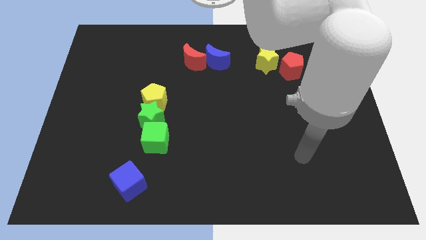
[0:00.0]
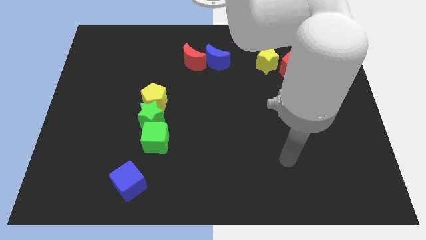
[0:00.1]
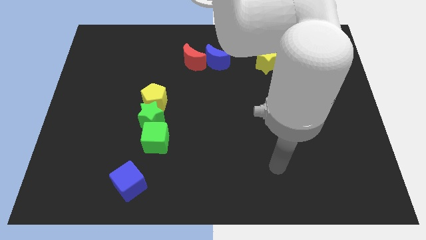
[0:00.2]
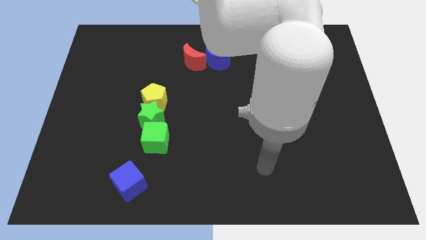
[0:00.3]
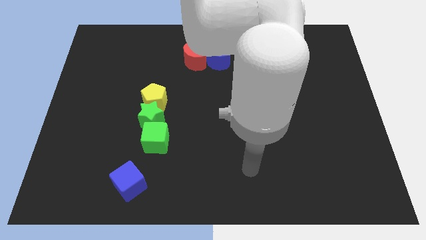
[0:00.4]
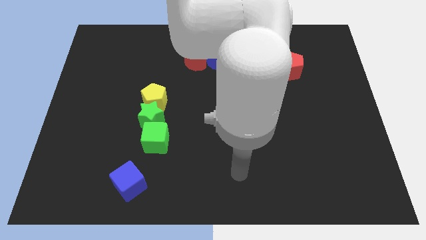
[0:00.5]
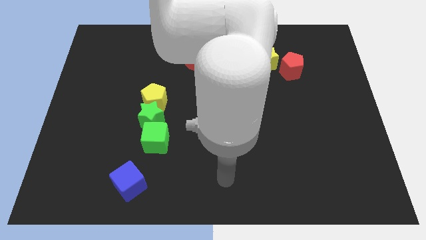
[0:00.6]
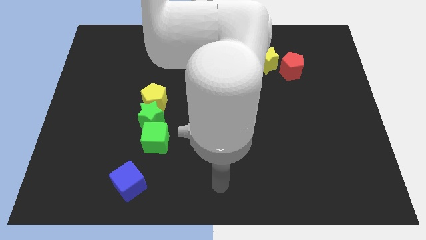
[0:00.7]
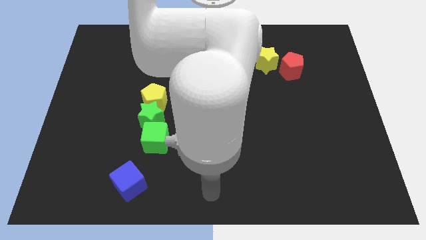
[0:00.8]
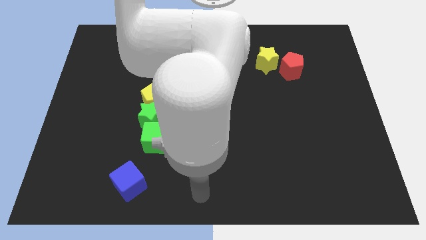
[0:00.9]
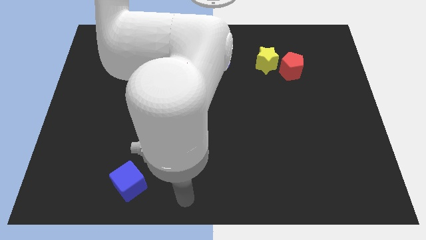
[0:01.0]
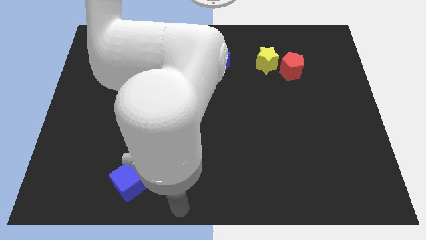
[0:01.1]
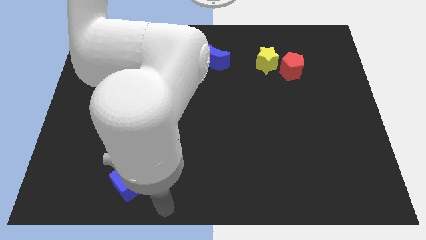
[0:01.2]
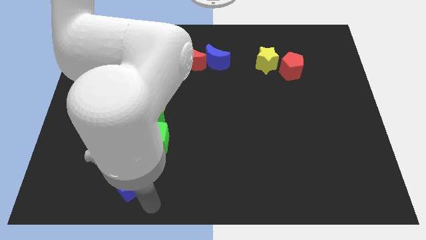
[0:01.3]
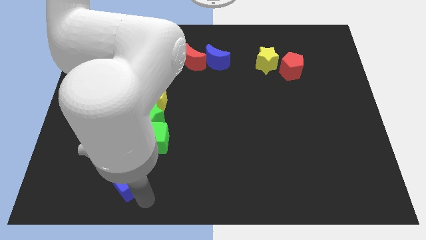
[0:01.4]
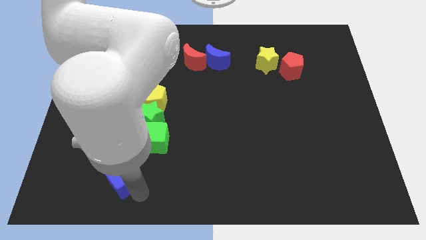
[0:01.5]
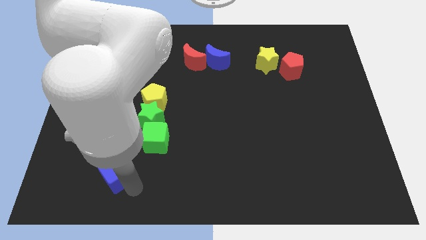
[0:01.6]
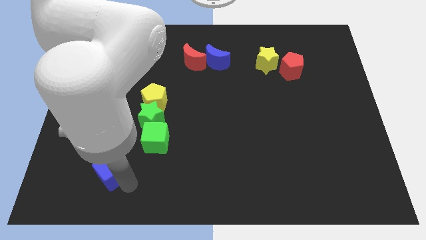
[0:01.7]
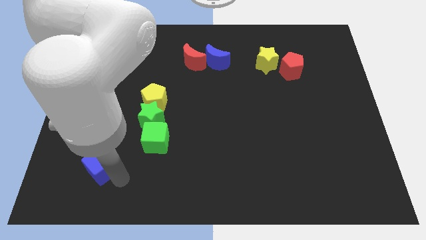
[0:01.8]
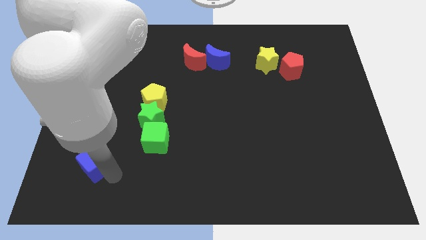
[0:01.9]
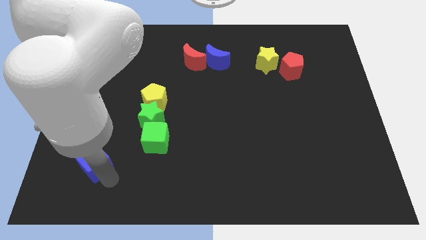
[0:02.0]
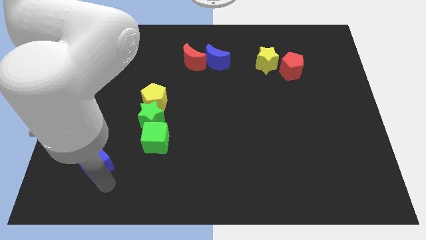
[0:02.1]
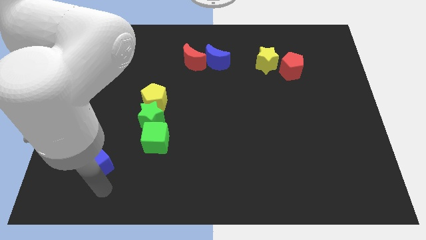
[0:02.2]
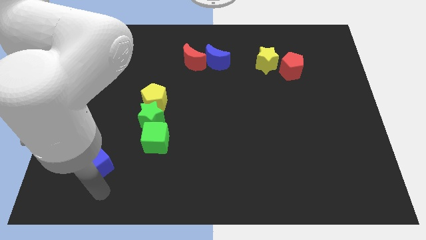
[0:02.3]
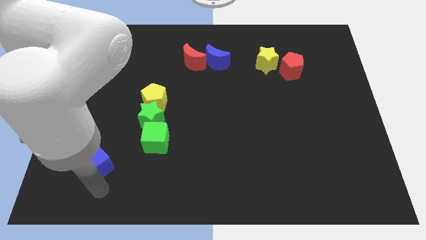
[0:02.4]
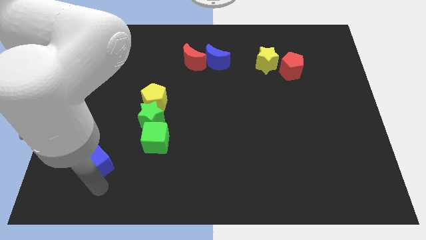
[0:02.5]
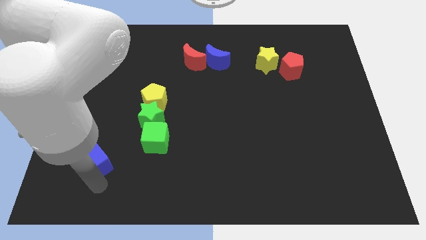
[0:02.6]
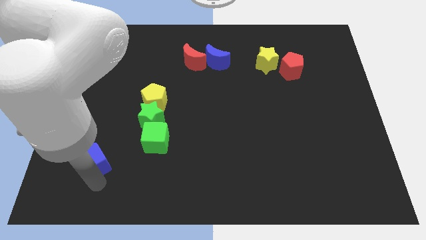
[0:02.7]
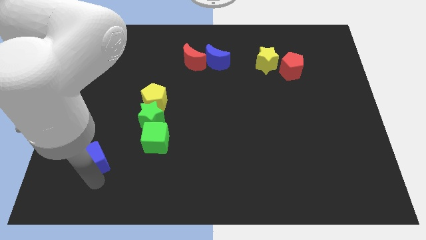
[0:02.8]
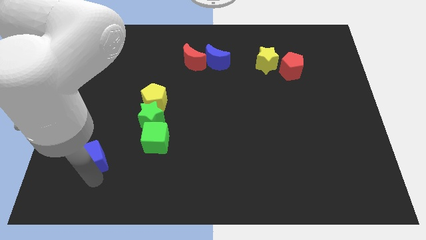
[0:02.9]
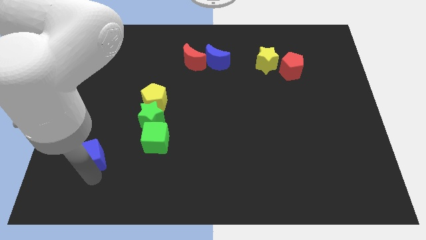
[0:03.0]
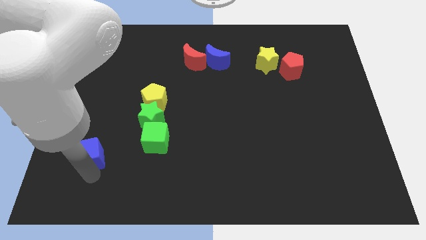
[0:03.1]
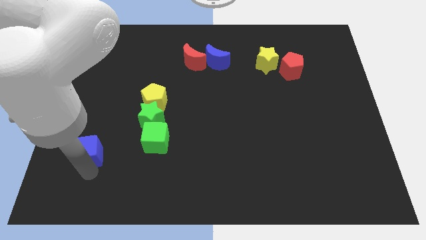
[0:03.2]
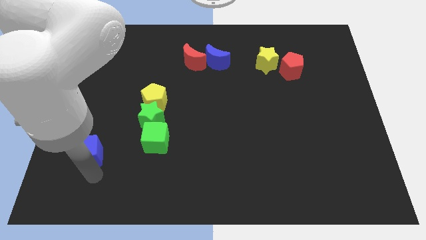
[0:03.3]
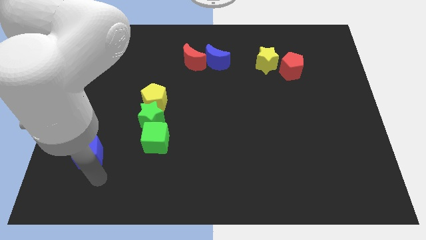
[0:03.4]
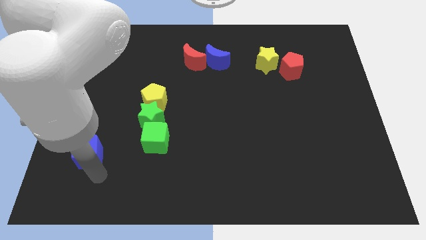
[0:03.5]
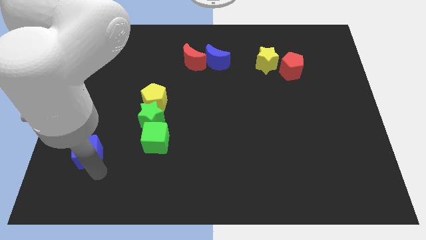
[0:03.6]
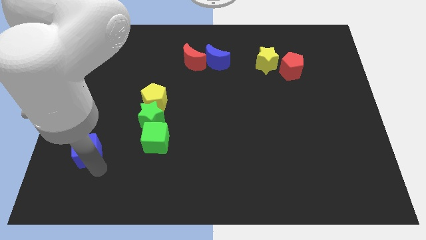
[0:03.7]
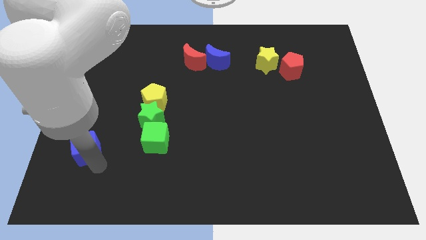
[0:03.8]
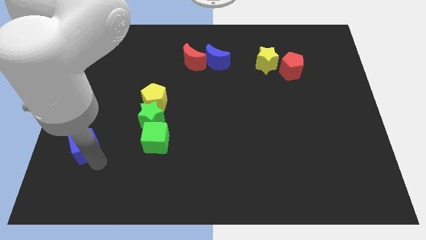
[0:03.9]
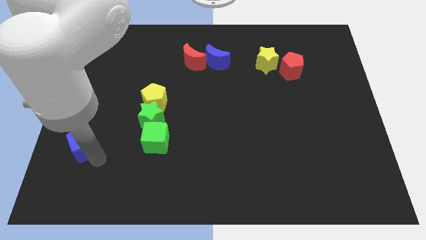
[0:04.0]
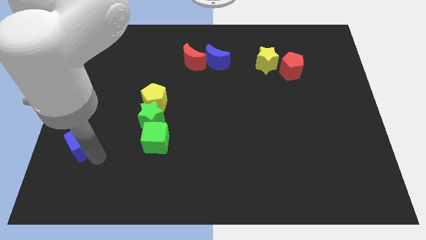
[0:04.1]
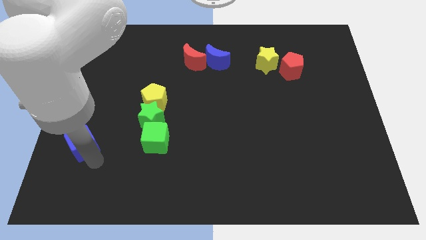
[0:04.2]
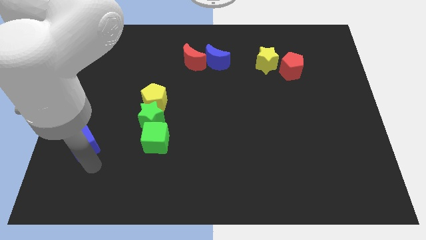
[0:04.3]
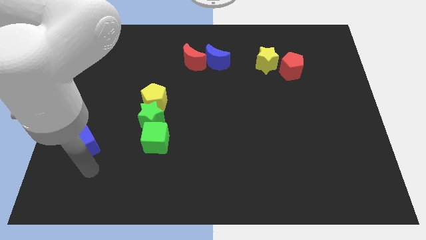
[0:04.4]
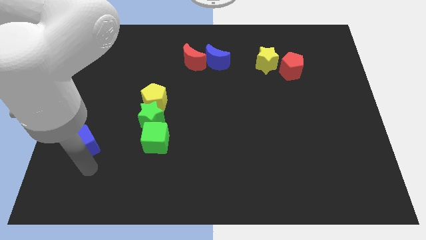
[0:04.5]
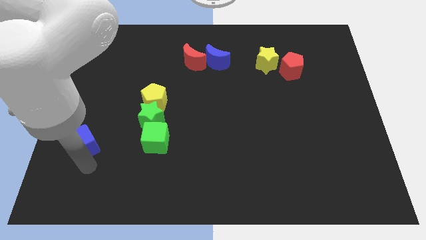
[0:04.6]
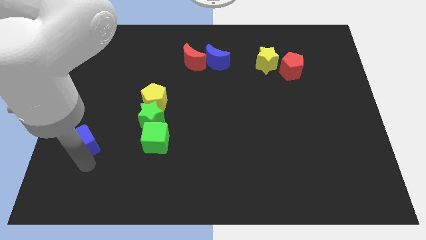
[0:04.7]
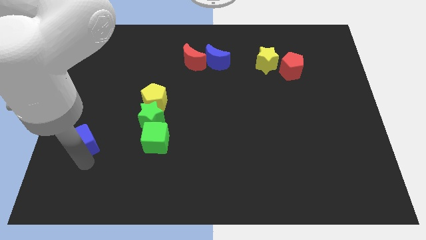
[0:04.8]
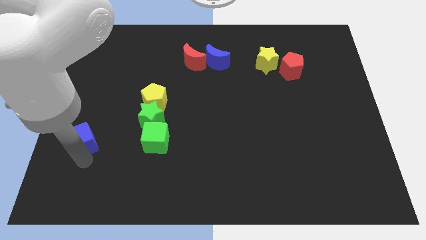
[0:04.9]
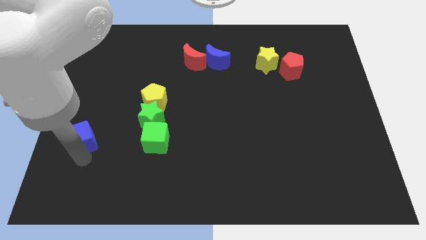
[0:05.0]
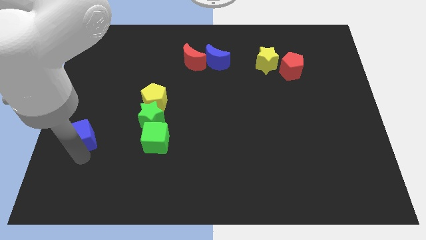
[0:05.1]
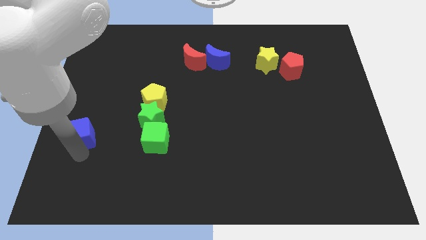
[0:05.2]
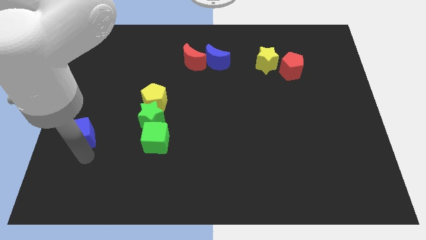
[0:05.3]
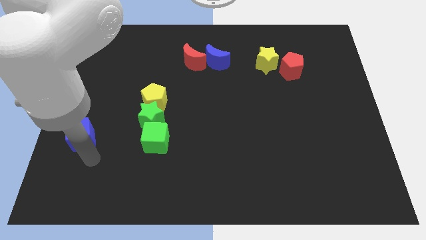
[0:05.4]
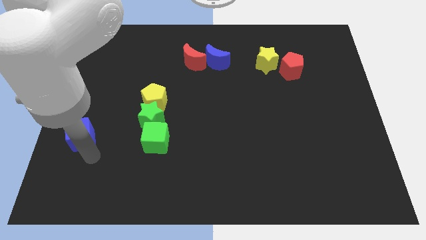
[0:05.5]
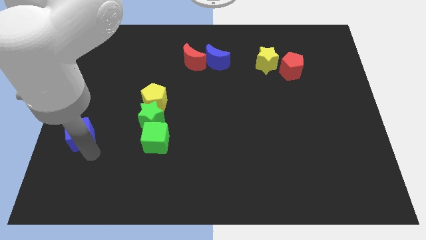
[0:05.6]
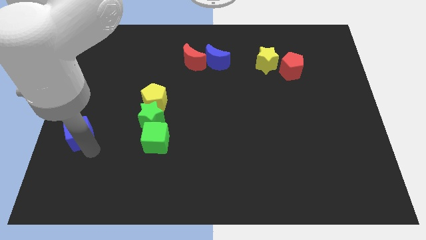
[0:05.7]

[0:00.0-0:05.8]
move the blue cube to the left side of the board

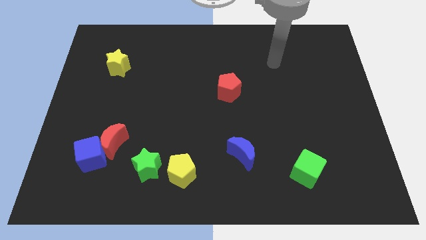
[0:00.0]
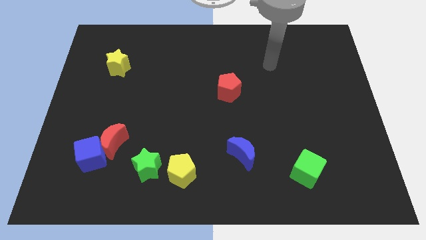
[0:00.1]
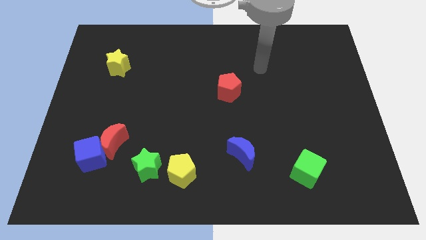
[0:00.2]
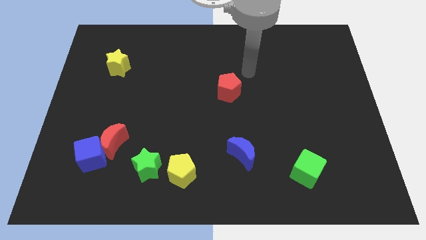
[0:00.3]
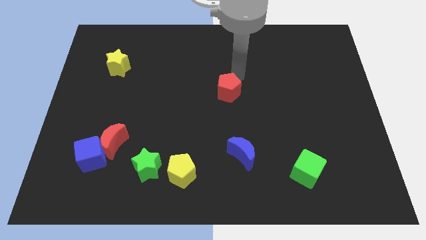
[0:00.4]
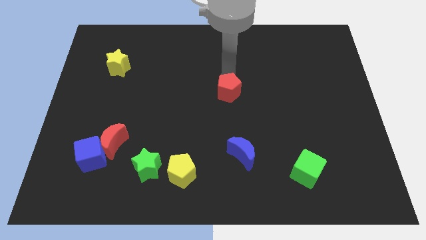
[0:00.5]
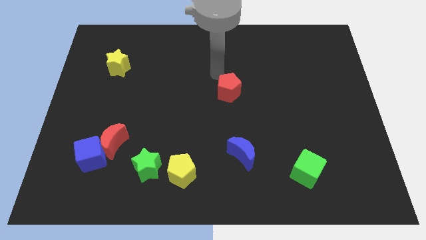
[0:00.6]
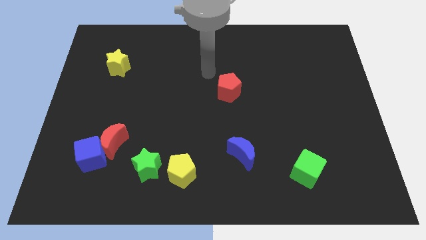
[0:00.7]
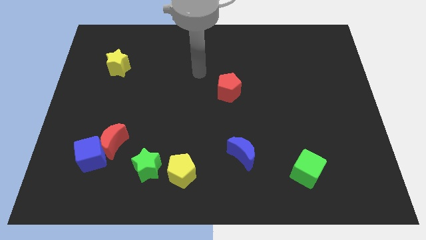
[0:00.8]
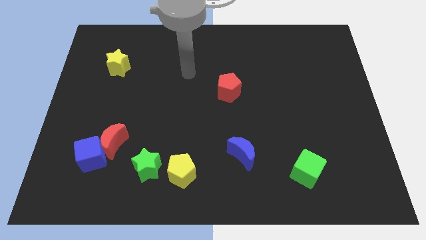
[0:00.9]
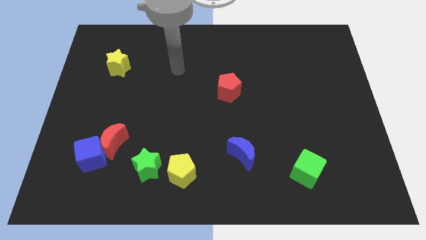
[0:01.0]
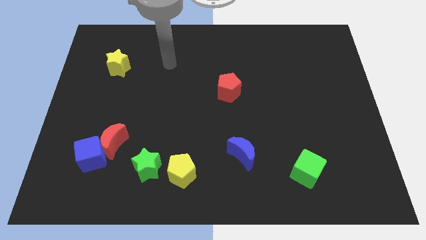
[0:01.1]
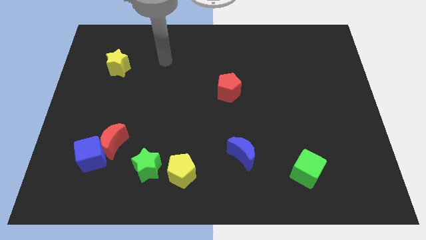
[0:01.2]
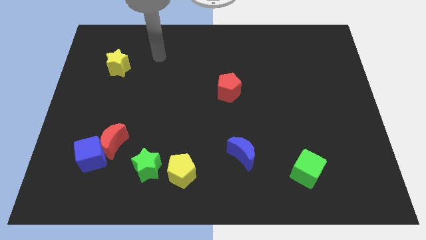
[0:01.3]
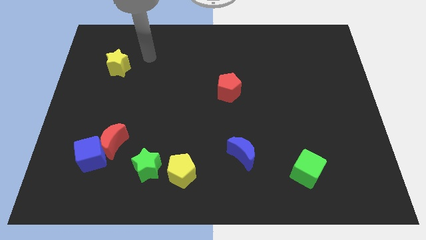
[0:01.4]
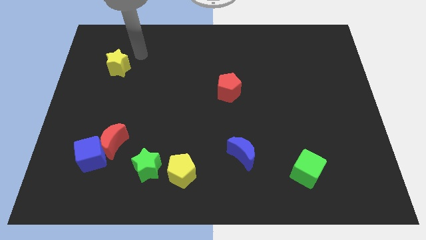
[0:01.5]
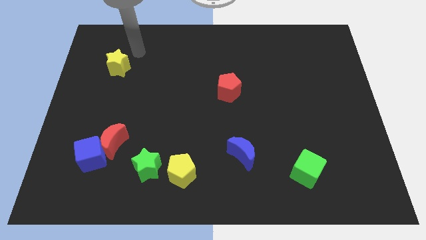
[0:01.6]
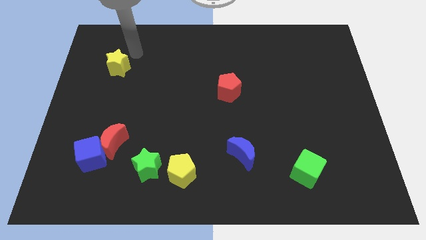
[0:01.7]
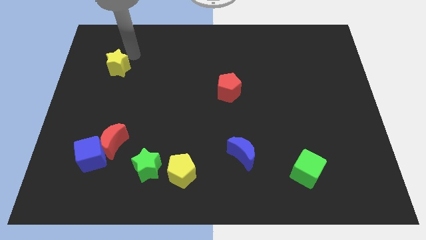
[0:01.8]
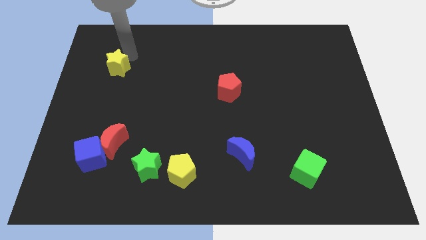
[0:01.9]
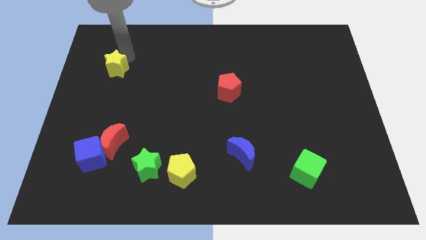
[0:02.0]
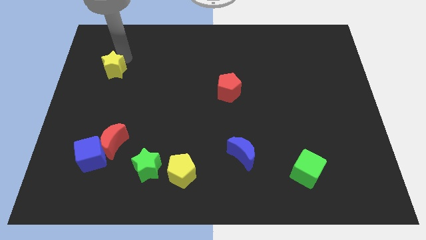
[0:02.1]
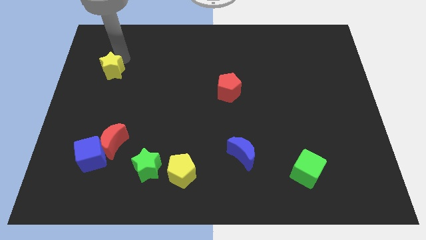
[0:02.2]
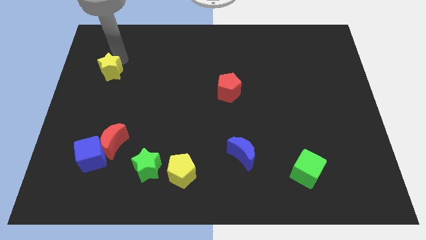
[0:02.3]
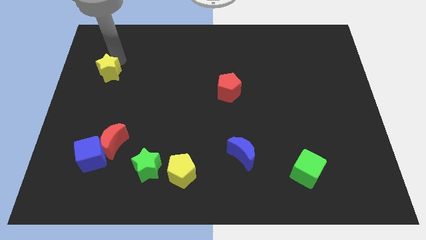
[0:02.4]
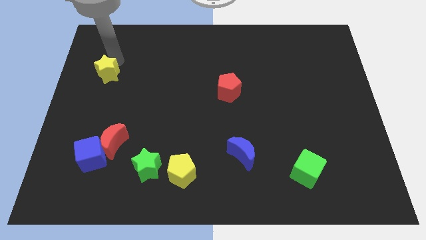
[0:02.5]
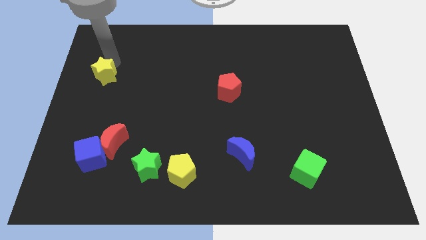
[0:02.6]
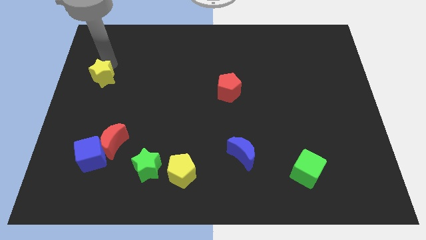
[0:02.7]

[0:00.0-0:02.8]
put the yellow star to the left side of the board
